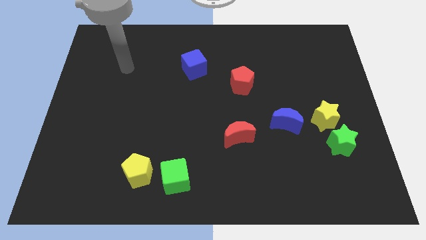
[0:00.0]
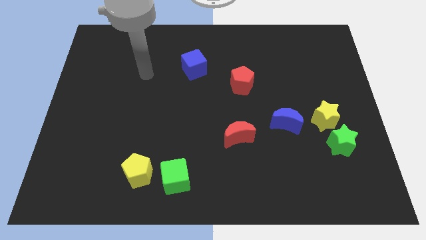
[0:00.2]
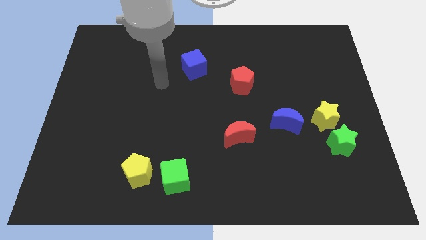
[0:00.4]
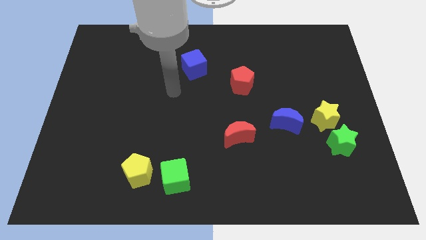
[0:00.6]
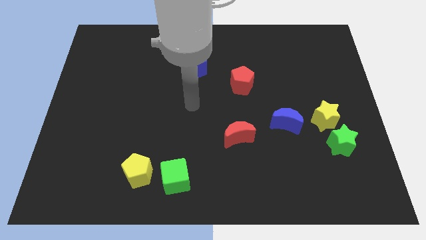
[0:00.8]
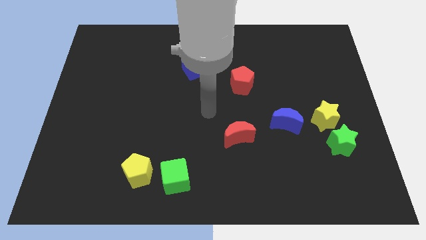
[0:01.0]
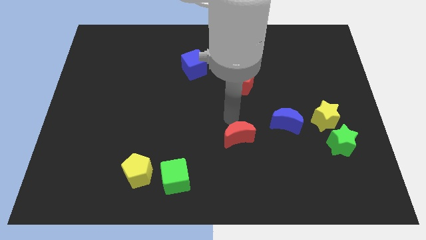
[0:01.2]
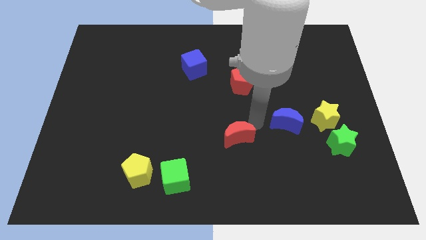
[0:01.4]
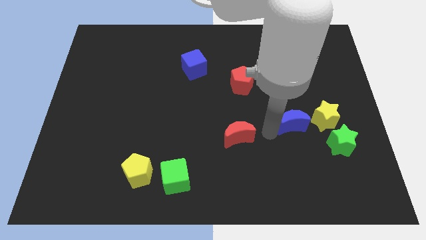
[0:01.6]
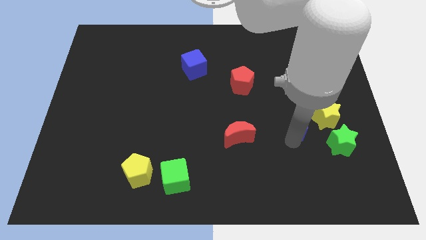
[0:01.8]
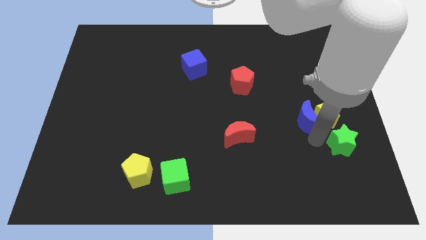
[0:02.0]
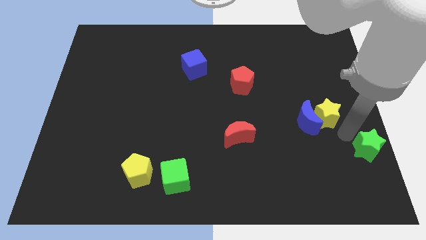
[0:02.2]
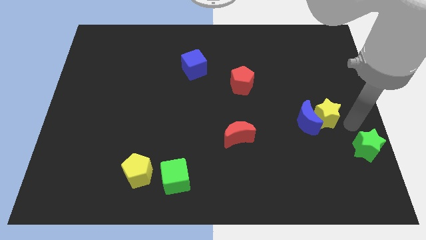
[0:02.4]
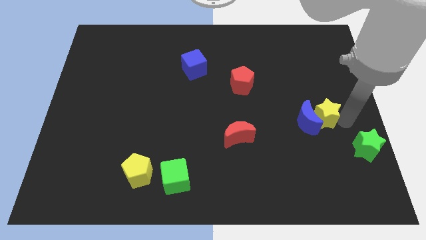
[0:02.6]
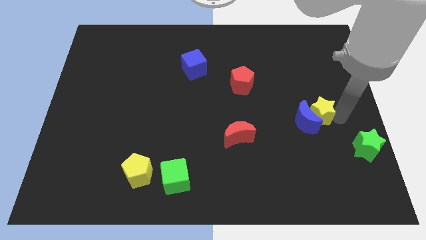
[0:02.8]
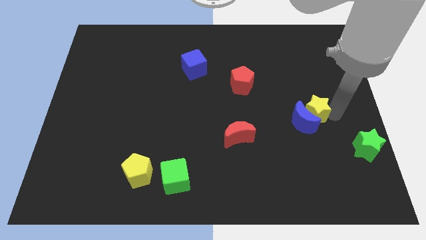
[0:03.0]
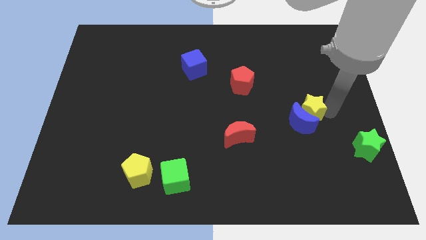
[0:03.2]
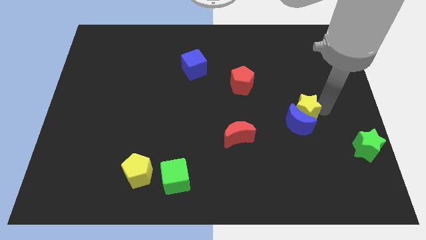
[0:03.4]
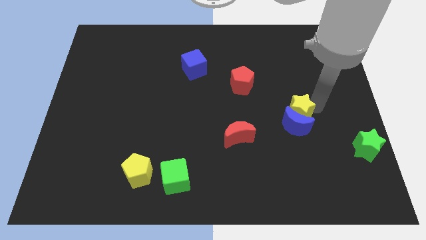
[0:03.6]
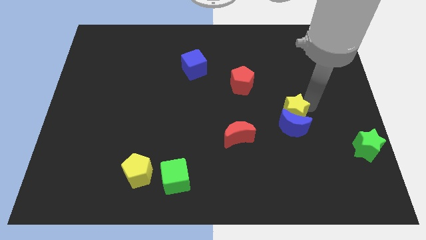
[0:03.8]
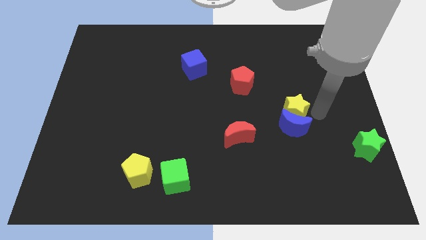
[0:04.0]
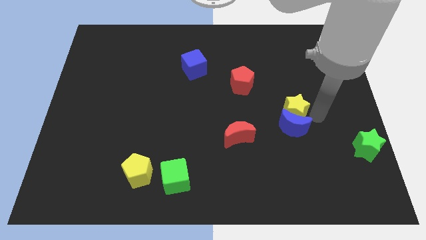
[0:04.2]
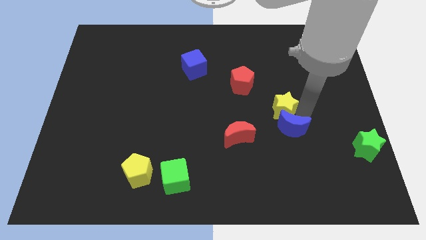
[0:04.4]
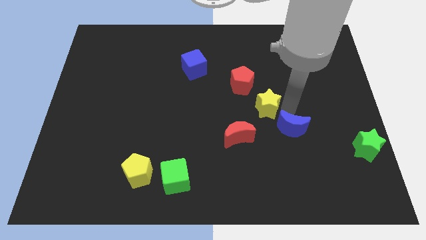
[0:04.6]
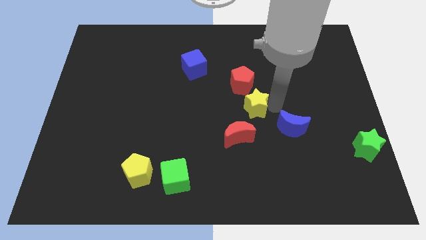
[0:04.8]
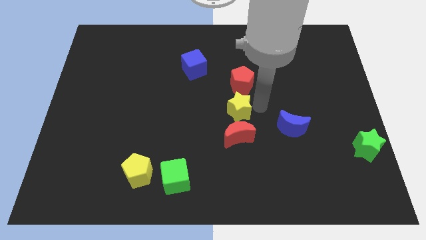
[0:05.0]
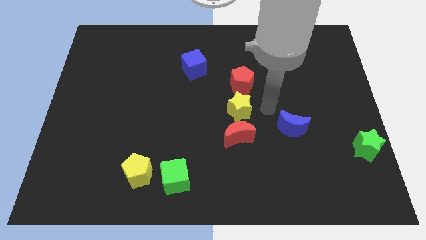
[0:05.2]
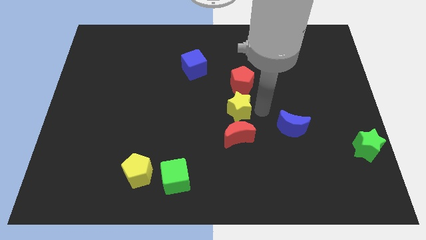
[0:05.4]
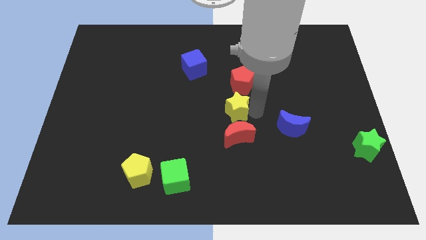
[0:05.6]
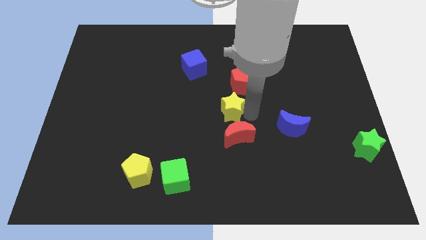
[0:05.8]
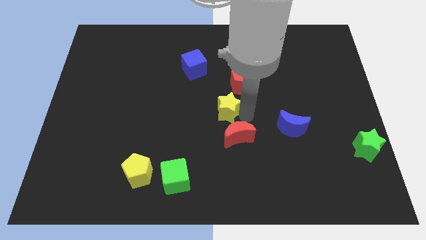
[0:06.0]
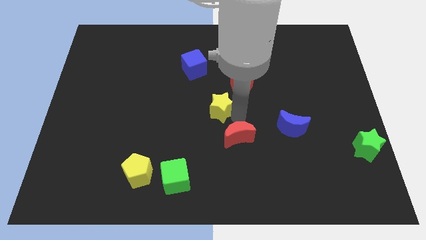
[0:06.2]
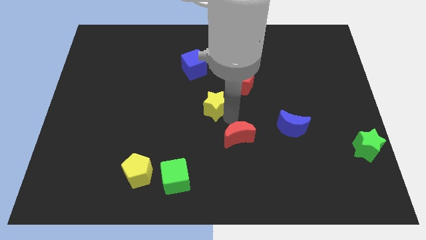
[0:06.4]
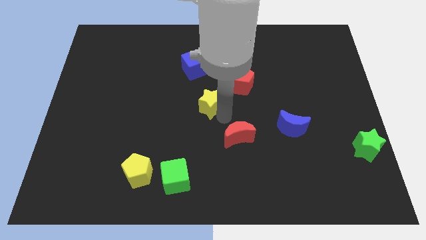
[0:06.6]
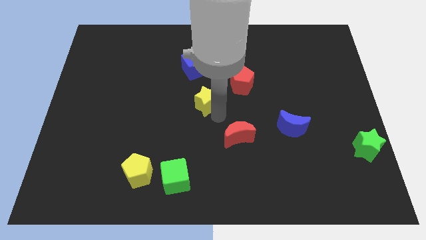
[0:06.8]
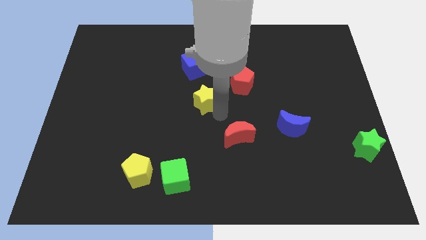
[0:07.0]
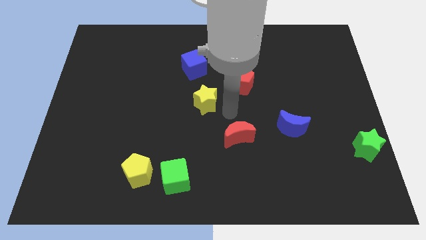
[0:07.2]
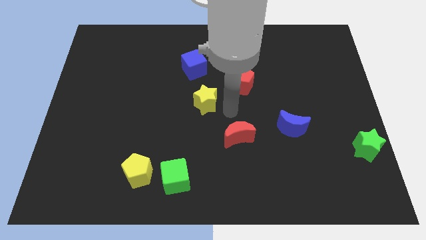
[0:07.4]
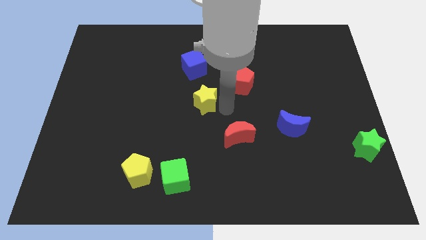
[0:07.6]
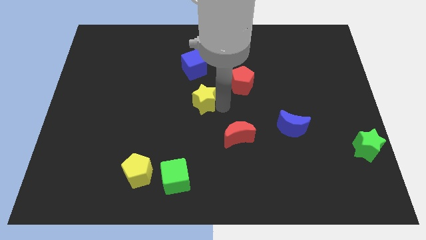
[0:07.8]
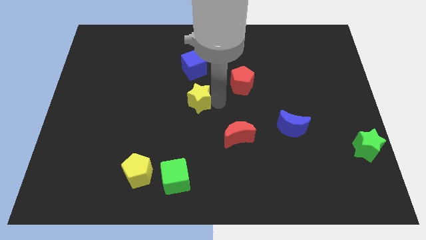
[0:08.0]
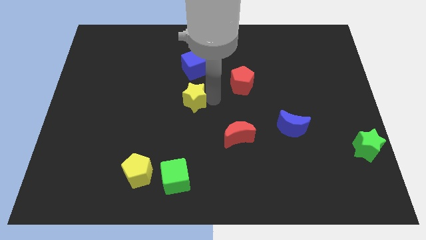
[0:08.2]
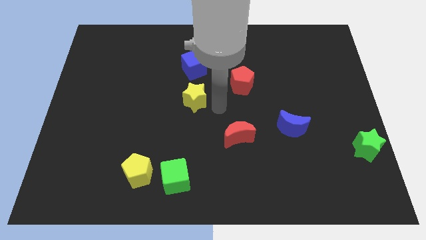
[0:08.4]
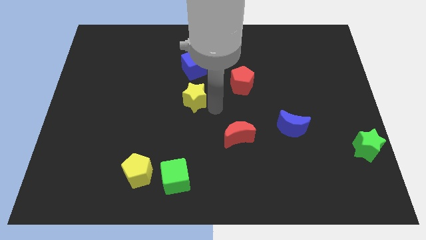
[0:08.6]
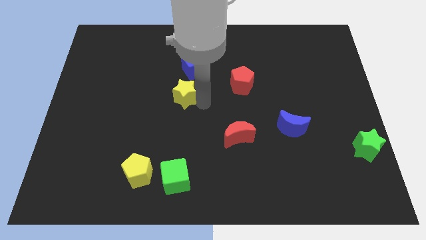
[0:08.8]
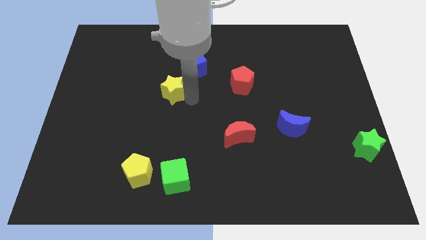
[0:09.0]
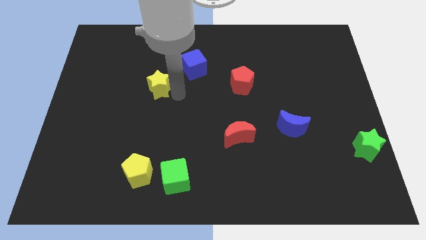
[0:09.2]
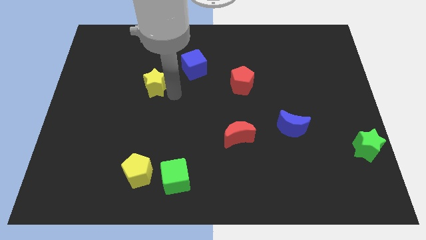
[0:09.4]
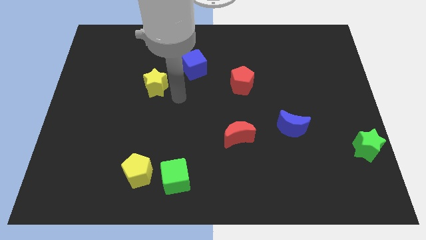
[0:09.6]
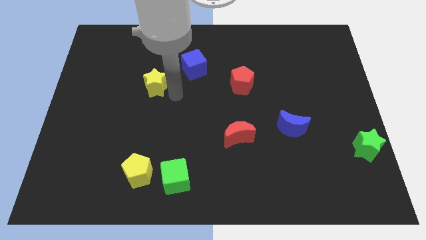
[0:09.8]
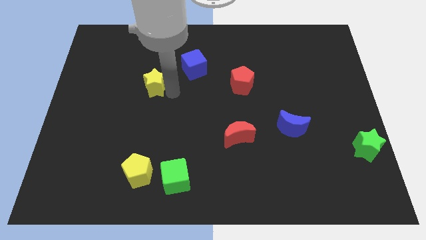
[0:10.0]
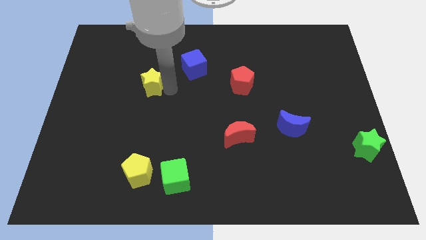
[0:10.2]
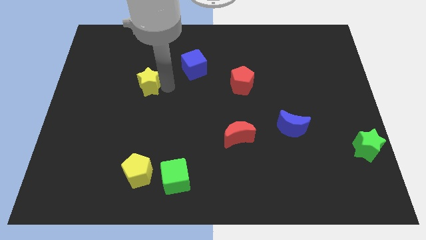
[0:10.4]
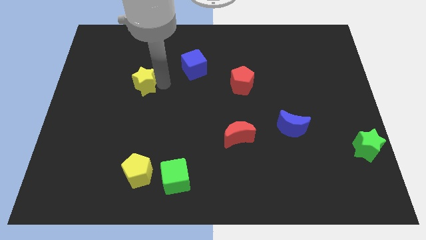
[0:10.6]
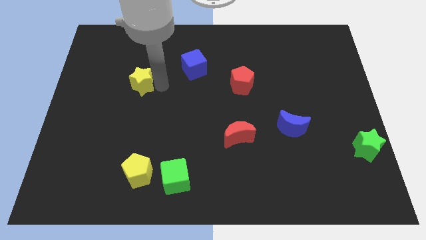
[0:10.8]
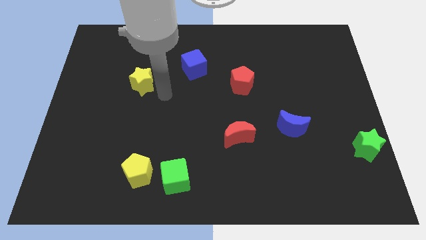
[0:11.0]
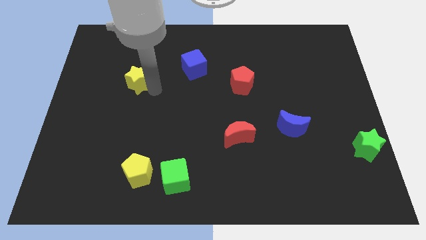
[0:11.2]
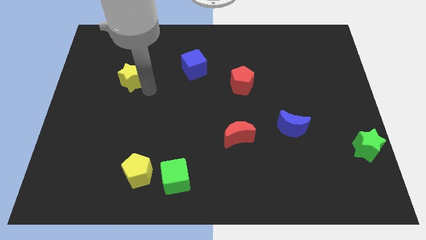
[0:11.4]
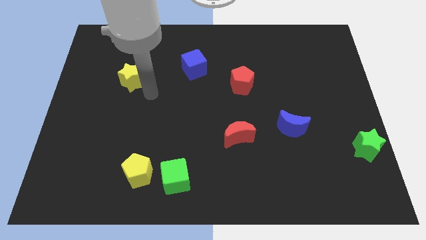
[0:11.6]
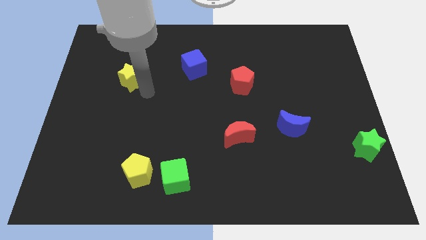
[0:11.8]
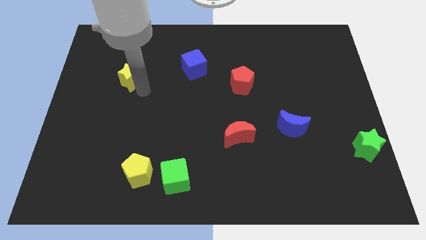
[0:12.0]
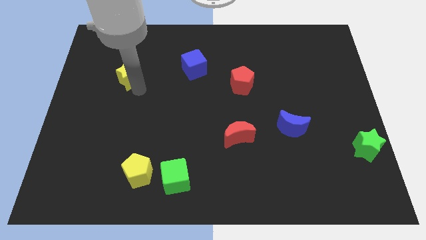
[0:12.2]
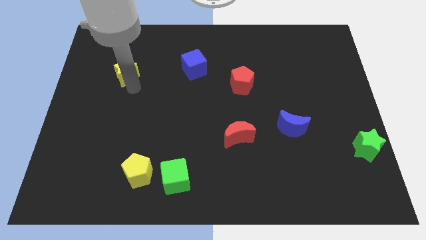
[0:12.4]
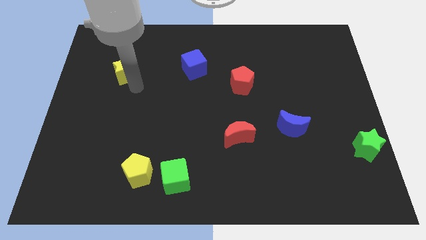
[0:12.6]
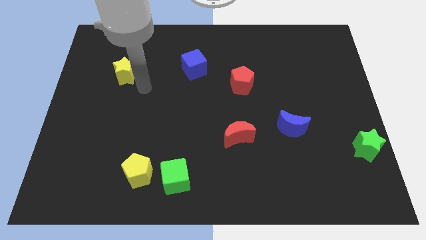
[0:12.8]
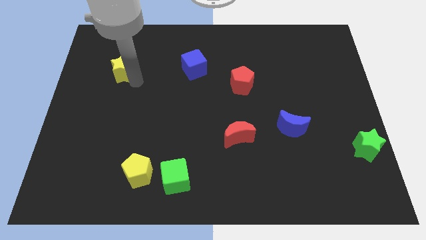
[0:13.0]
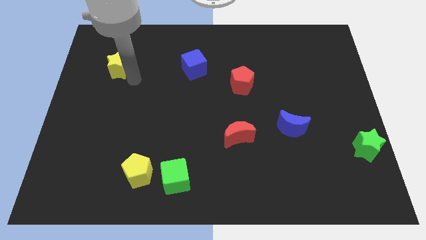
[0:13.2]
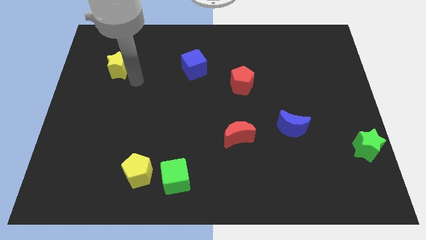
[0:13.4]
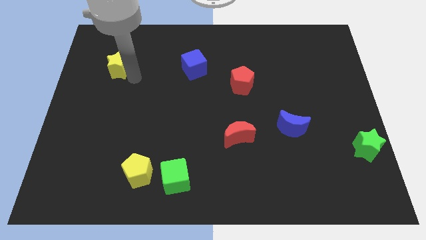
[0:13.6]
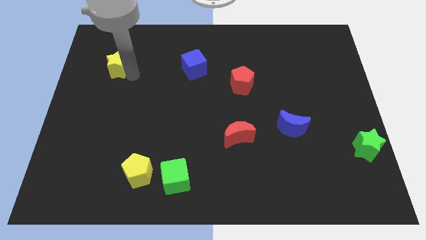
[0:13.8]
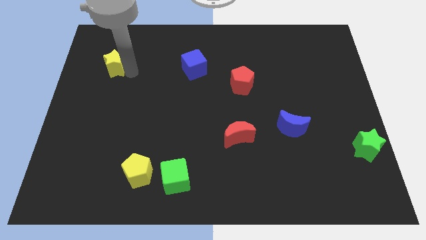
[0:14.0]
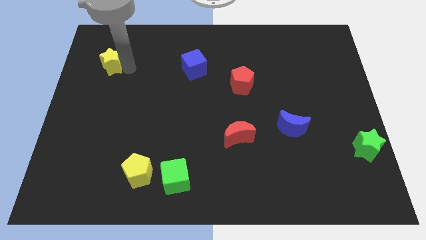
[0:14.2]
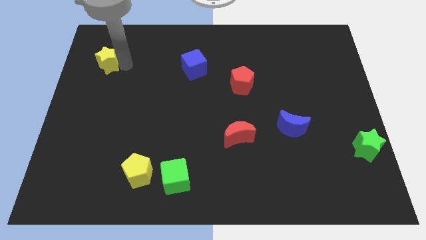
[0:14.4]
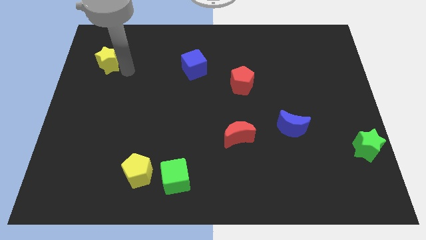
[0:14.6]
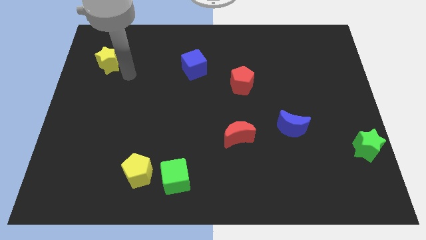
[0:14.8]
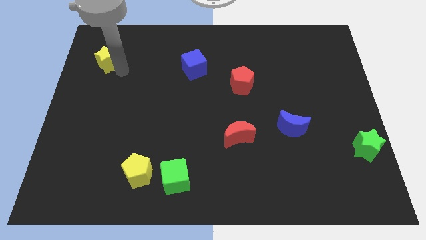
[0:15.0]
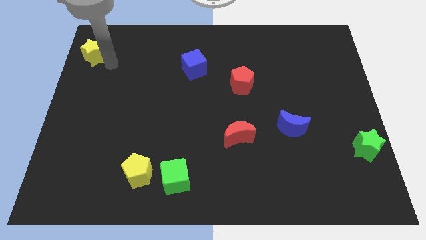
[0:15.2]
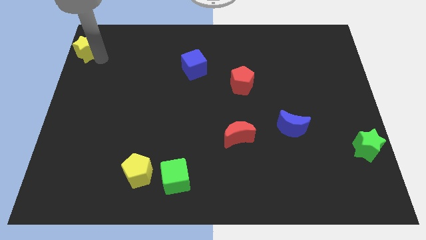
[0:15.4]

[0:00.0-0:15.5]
put the yellow star to the top left
